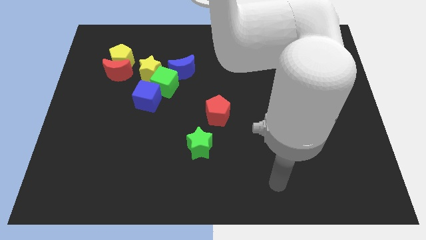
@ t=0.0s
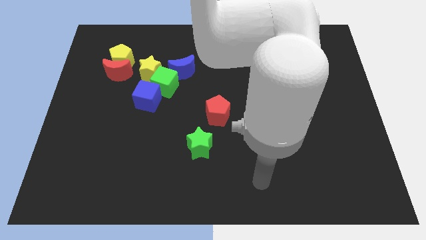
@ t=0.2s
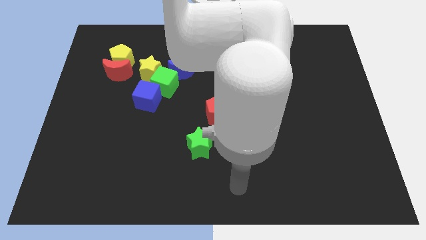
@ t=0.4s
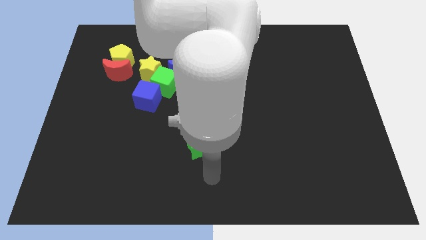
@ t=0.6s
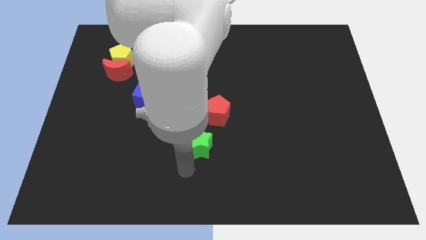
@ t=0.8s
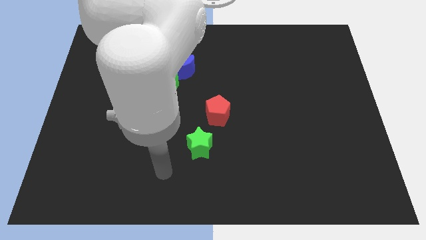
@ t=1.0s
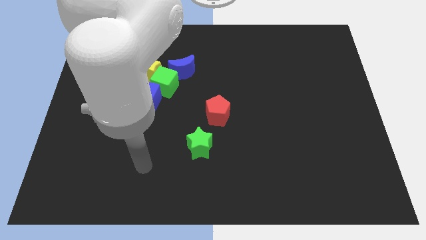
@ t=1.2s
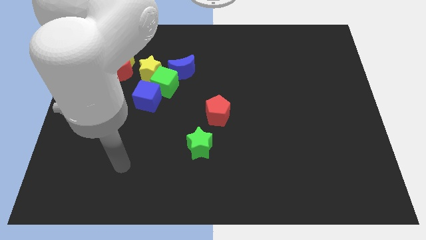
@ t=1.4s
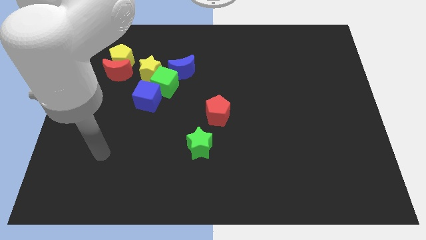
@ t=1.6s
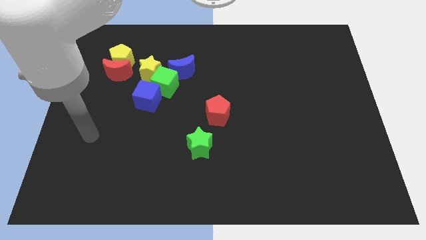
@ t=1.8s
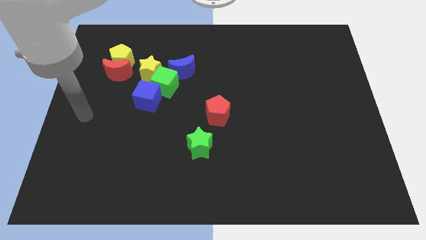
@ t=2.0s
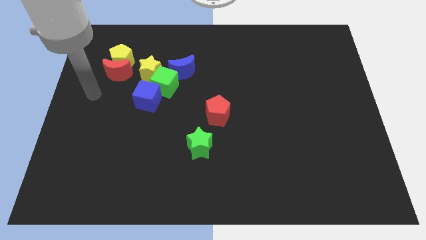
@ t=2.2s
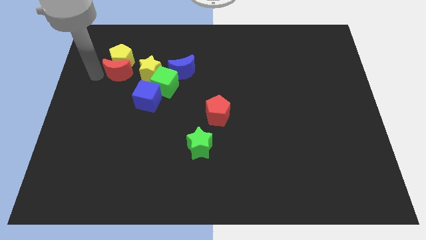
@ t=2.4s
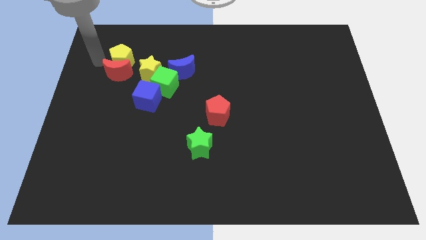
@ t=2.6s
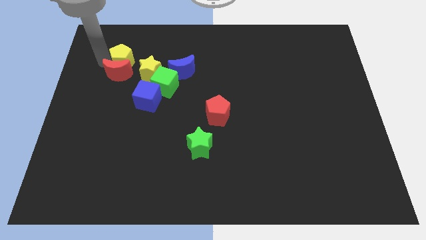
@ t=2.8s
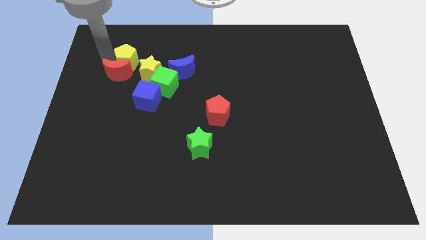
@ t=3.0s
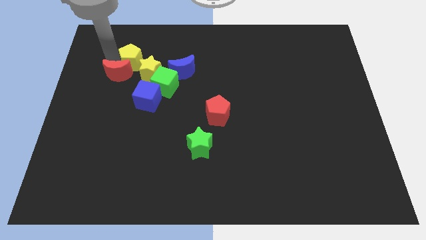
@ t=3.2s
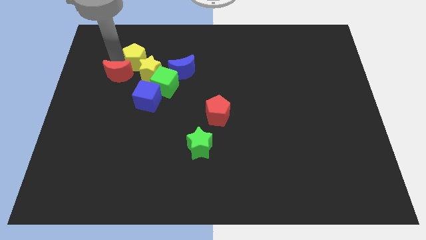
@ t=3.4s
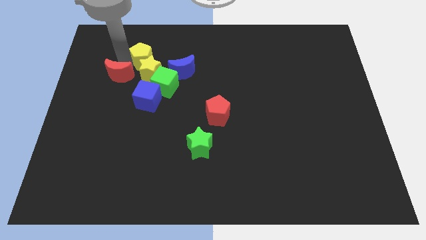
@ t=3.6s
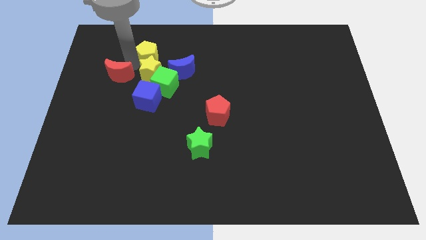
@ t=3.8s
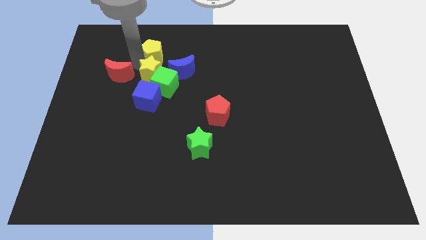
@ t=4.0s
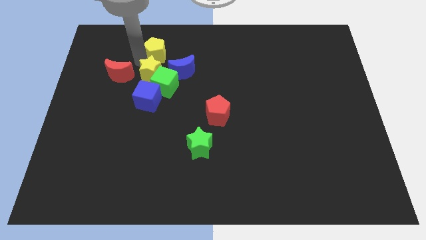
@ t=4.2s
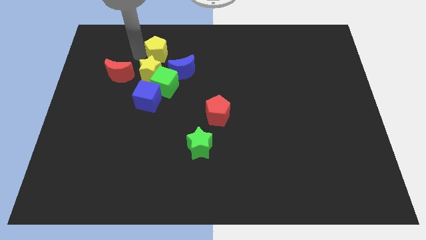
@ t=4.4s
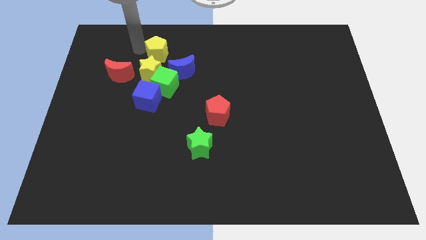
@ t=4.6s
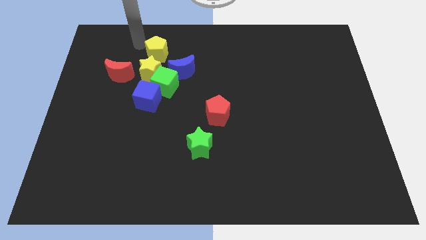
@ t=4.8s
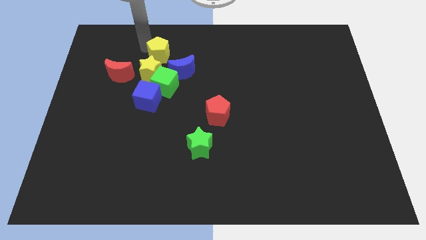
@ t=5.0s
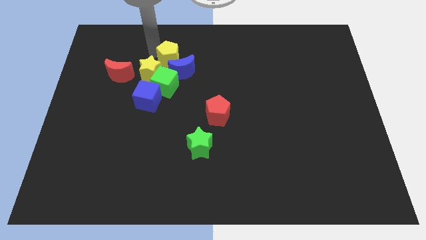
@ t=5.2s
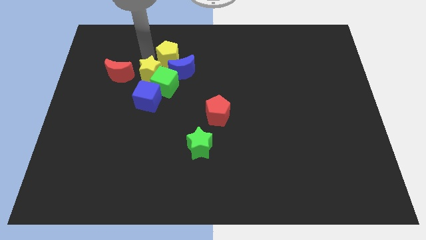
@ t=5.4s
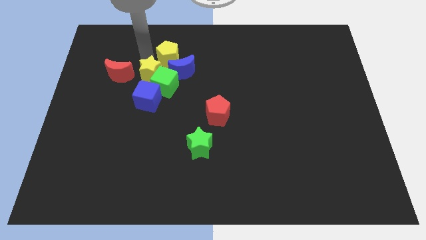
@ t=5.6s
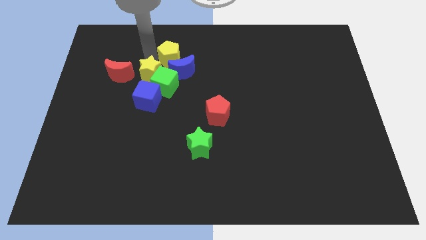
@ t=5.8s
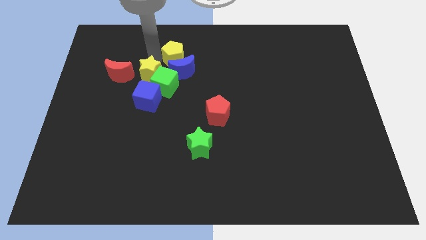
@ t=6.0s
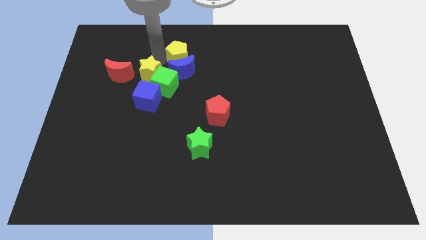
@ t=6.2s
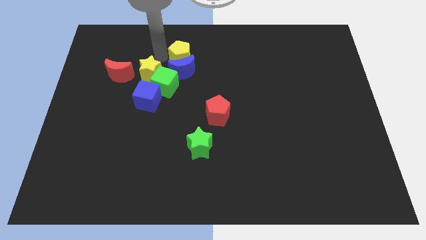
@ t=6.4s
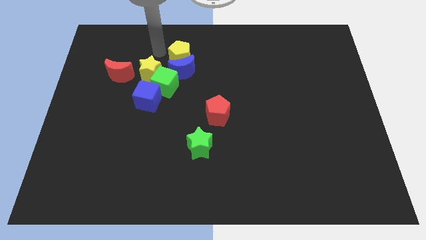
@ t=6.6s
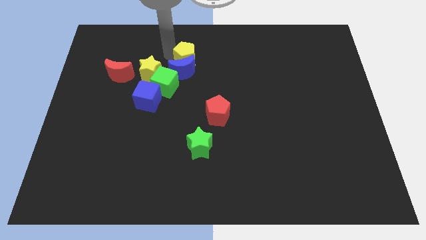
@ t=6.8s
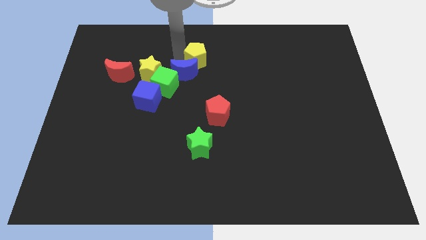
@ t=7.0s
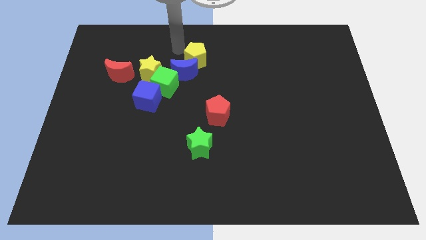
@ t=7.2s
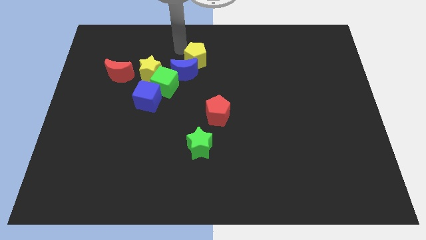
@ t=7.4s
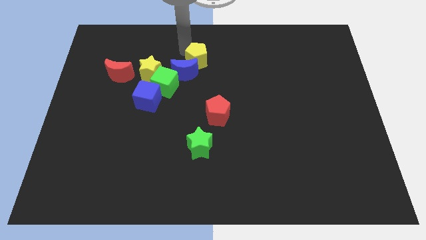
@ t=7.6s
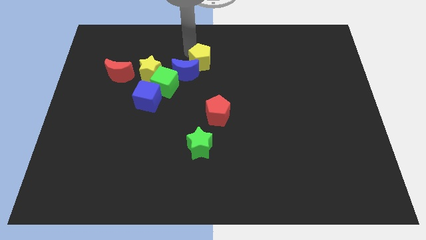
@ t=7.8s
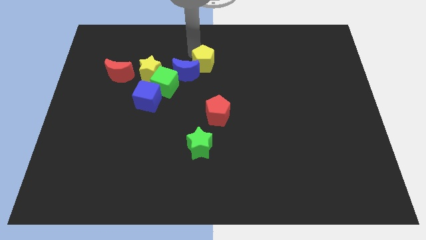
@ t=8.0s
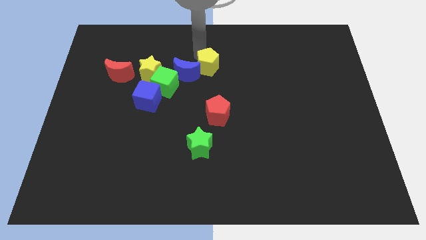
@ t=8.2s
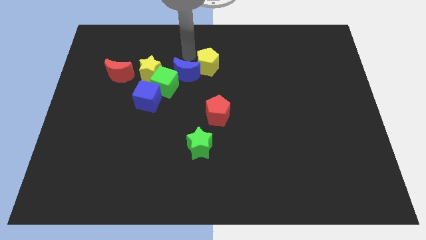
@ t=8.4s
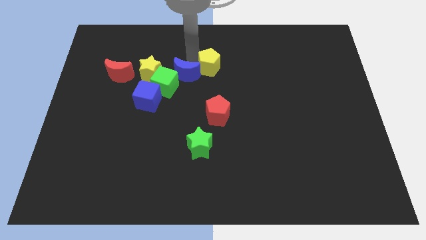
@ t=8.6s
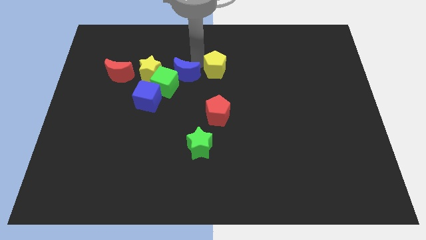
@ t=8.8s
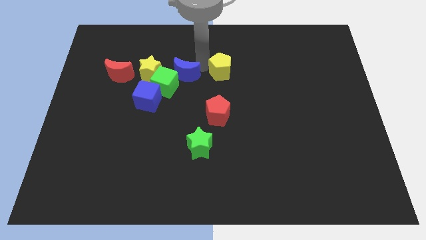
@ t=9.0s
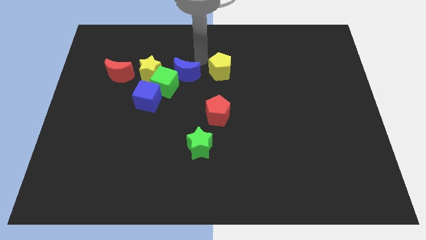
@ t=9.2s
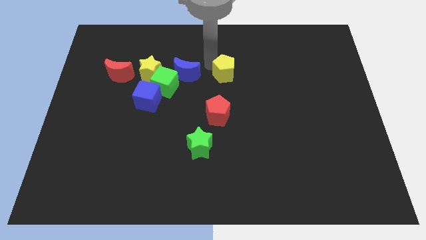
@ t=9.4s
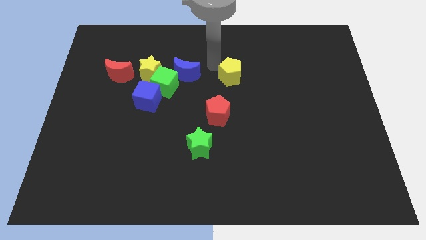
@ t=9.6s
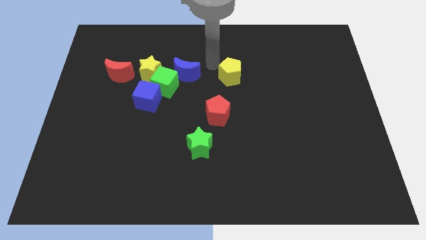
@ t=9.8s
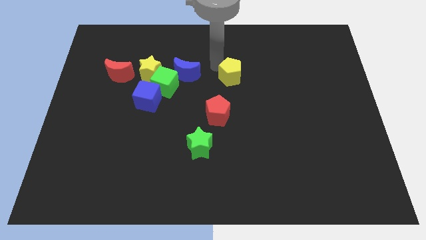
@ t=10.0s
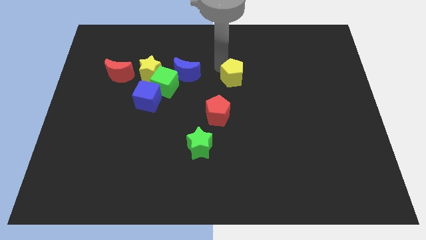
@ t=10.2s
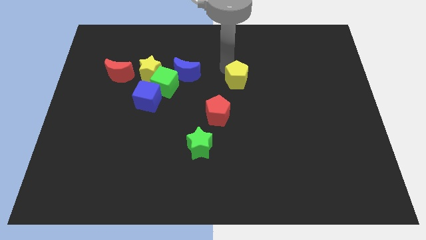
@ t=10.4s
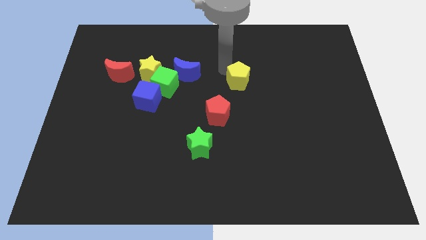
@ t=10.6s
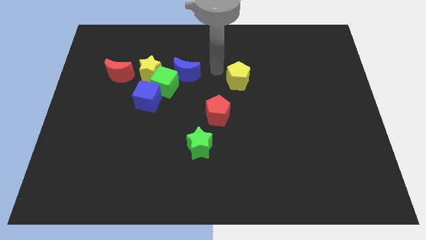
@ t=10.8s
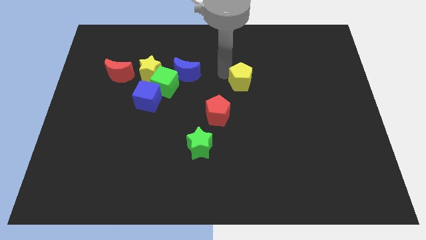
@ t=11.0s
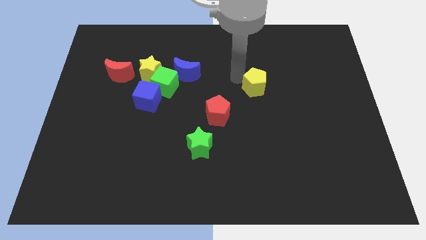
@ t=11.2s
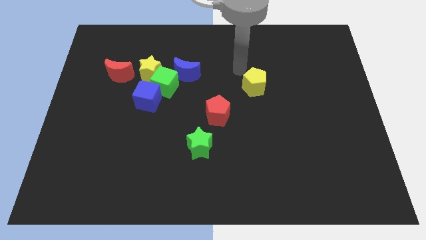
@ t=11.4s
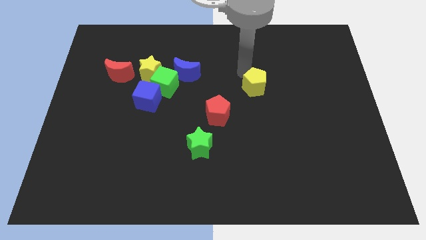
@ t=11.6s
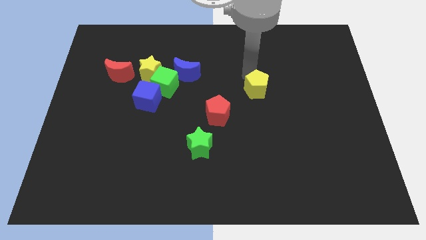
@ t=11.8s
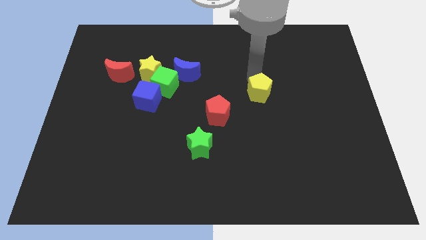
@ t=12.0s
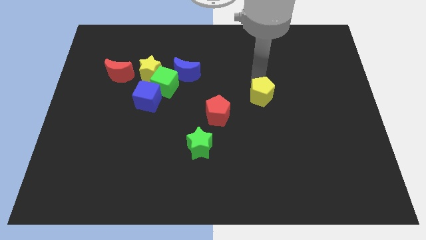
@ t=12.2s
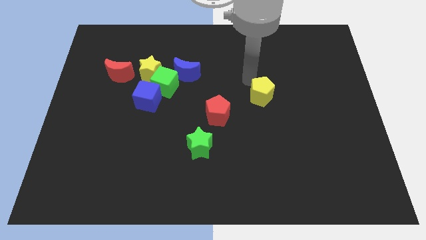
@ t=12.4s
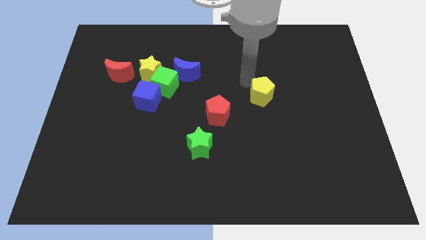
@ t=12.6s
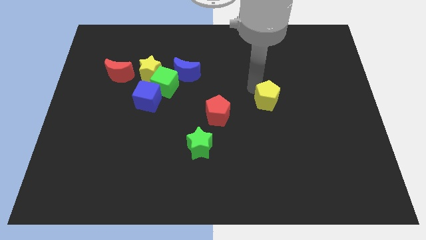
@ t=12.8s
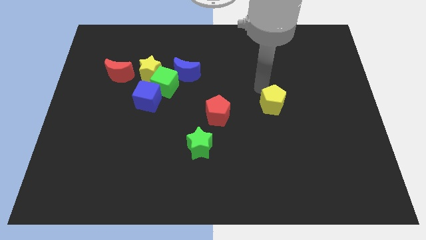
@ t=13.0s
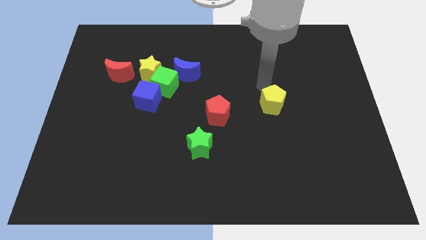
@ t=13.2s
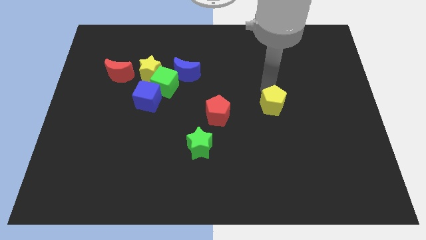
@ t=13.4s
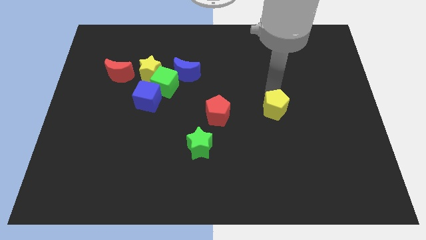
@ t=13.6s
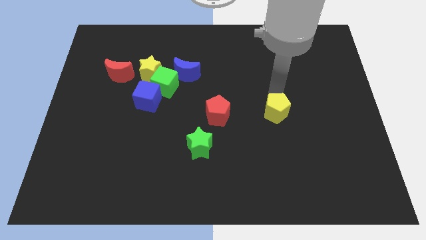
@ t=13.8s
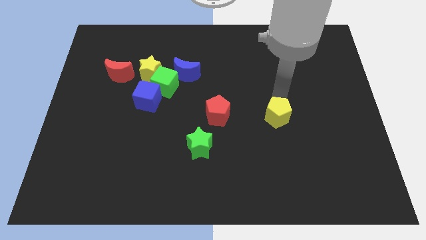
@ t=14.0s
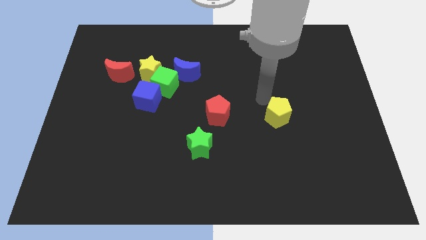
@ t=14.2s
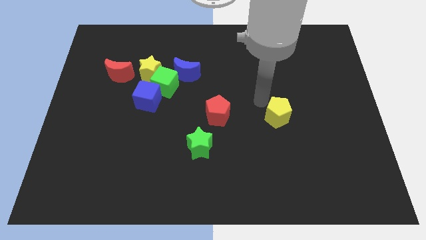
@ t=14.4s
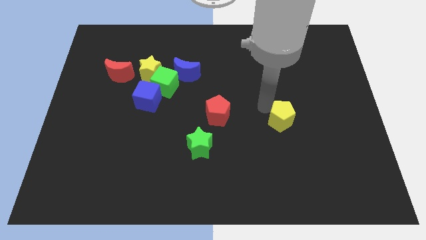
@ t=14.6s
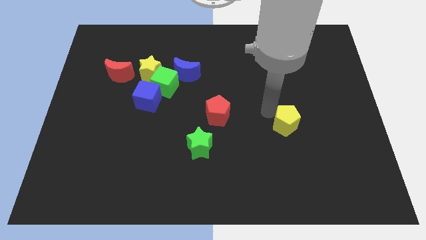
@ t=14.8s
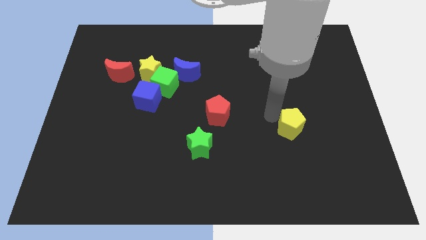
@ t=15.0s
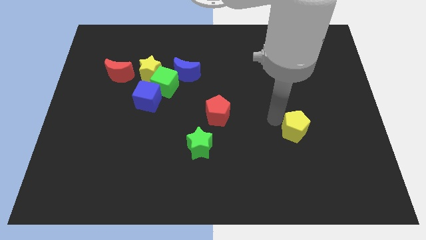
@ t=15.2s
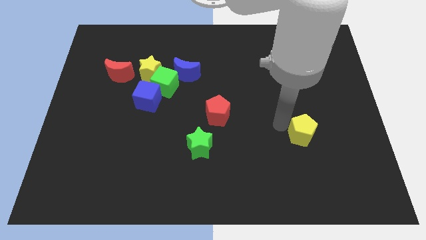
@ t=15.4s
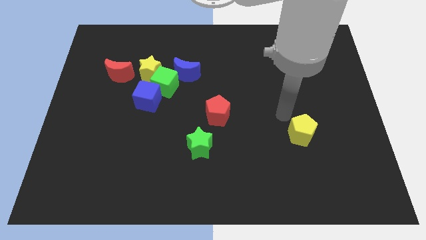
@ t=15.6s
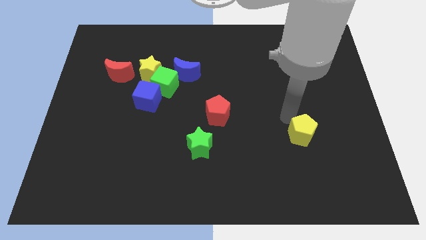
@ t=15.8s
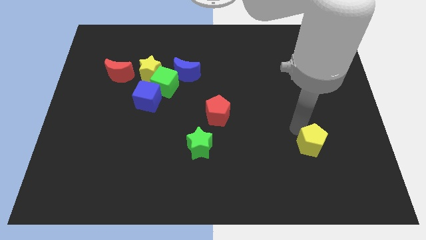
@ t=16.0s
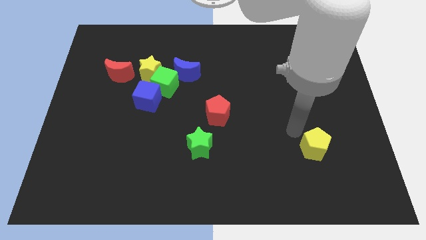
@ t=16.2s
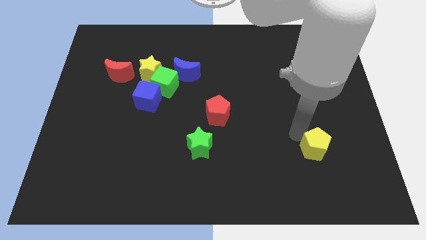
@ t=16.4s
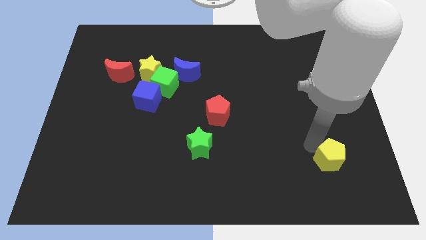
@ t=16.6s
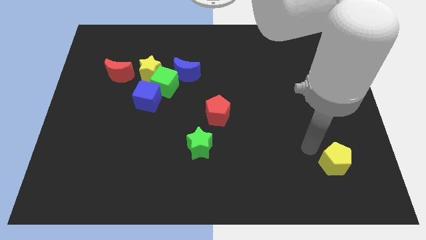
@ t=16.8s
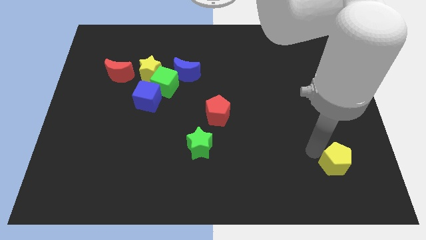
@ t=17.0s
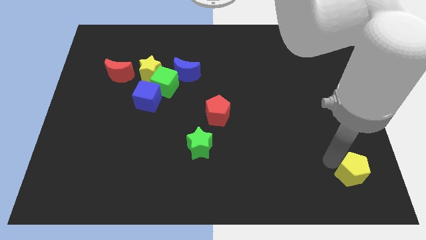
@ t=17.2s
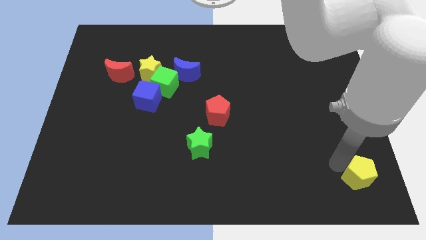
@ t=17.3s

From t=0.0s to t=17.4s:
slide the yellow pentagon to the bottom right of the board
